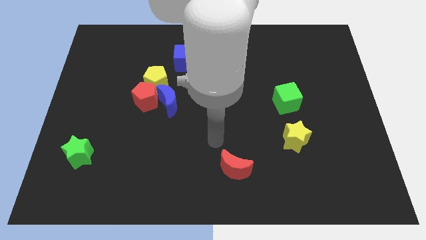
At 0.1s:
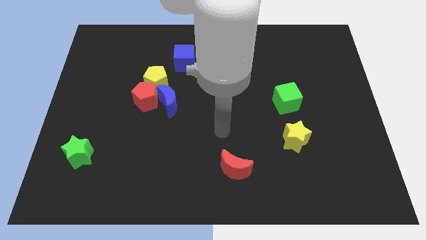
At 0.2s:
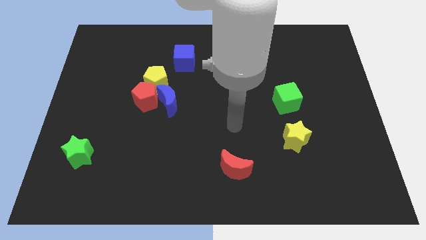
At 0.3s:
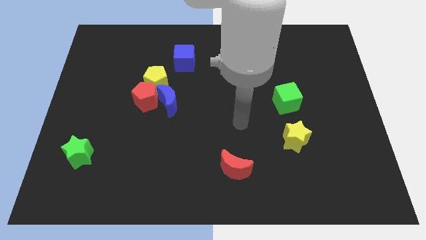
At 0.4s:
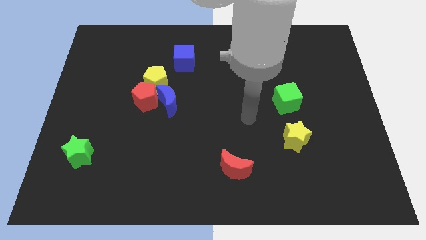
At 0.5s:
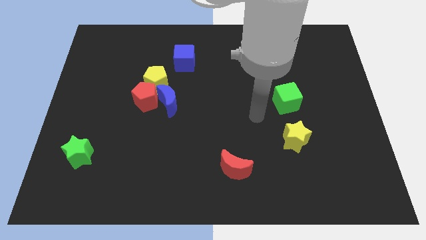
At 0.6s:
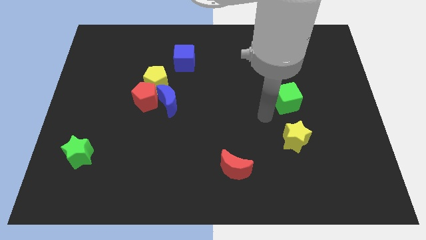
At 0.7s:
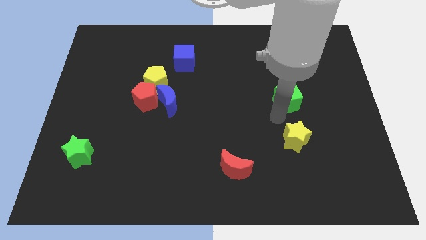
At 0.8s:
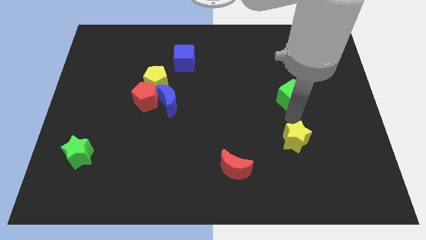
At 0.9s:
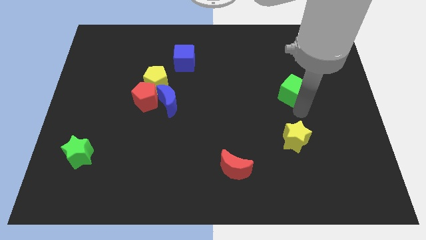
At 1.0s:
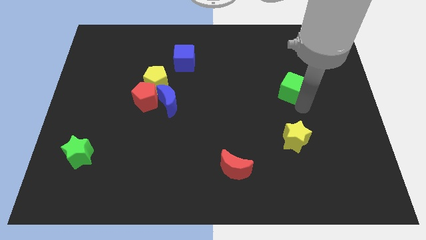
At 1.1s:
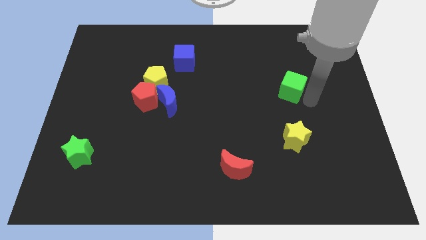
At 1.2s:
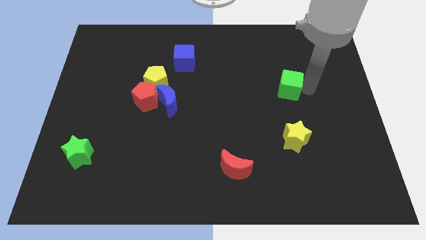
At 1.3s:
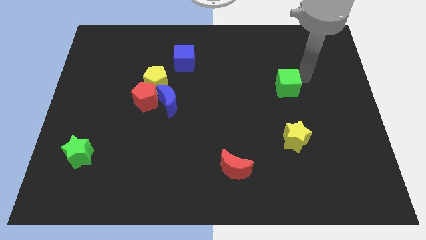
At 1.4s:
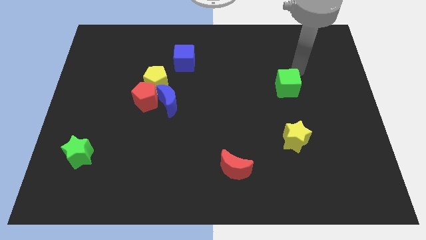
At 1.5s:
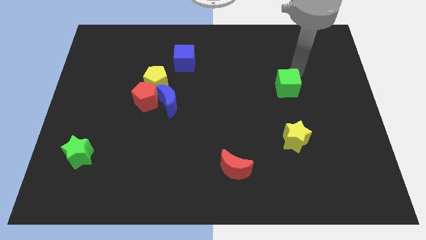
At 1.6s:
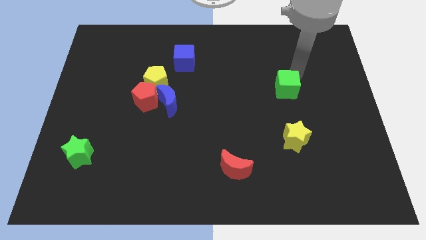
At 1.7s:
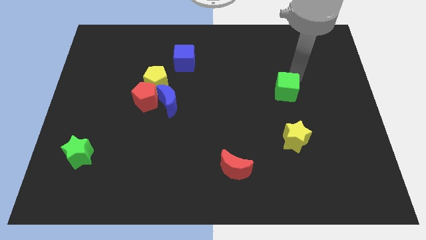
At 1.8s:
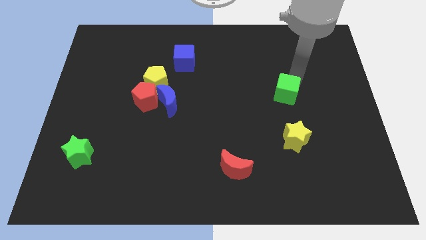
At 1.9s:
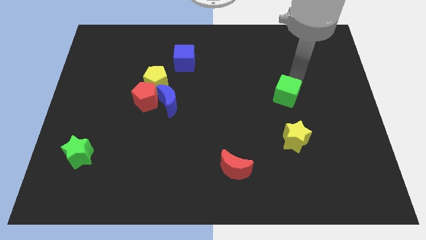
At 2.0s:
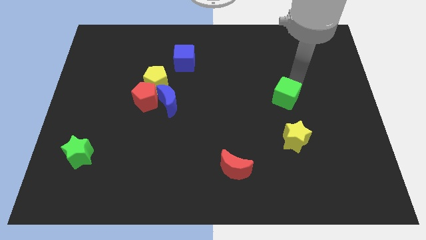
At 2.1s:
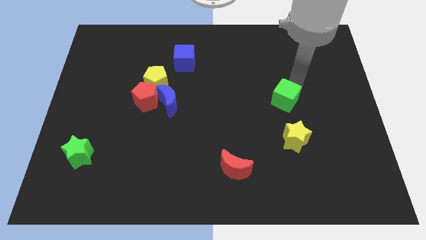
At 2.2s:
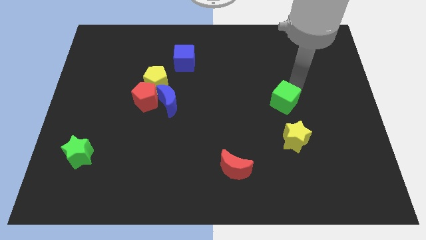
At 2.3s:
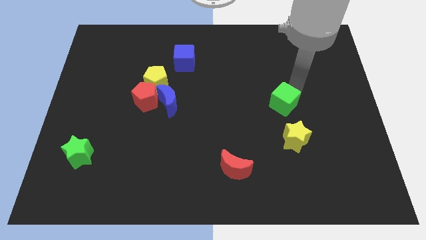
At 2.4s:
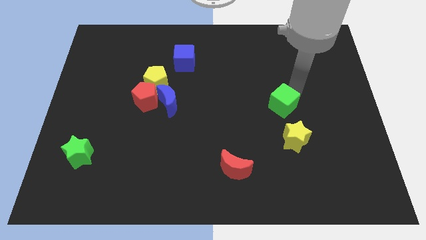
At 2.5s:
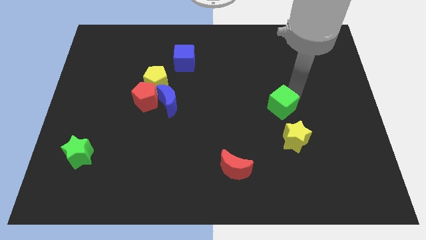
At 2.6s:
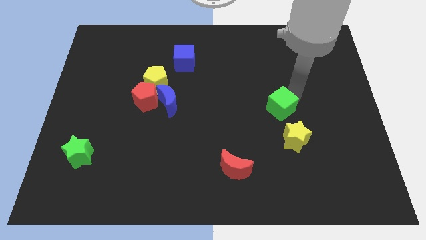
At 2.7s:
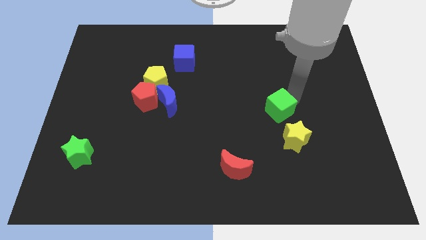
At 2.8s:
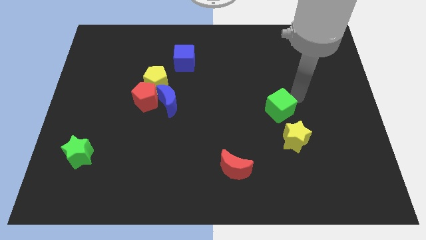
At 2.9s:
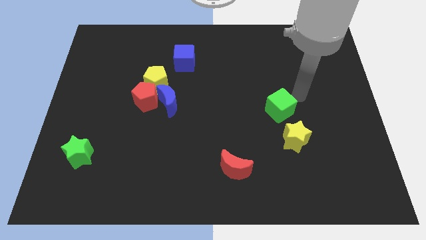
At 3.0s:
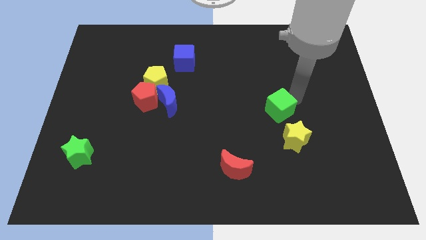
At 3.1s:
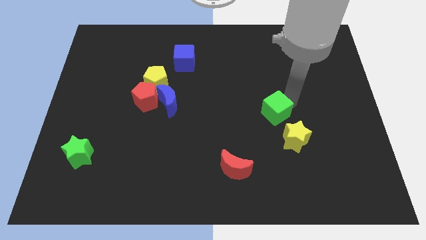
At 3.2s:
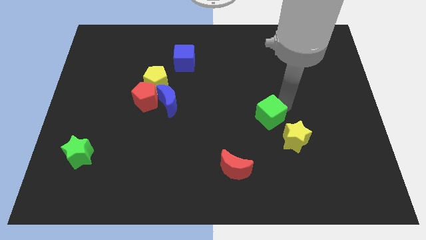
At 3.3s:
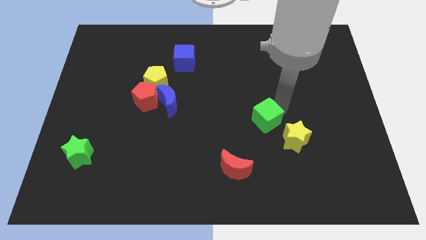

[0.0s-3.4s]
push the green cube downwards and left diagonally slightly

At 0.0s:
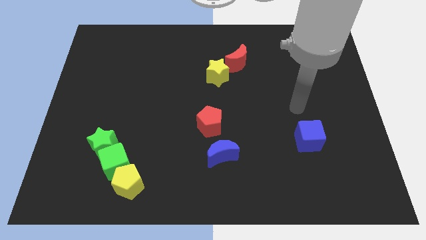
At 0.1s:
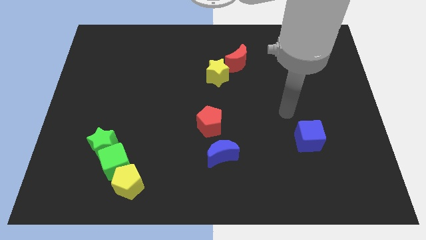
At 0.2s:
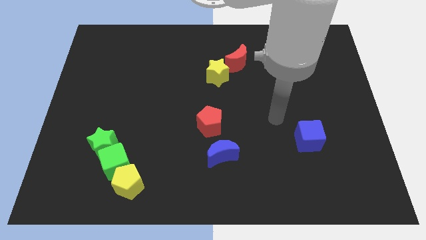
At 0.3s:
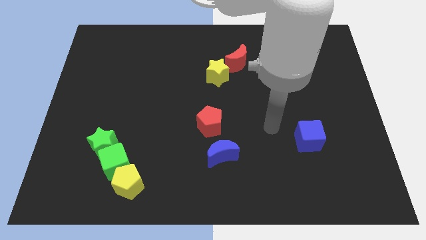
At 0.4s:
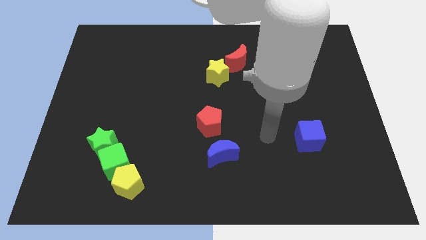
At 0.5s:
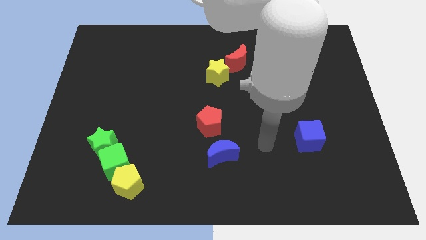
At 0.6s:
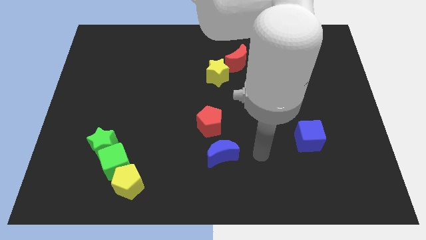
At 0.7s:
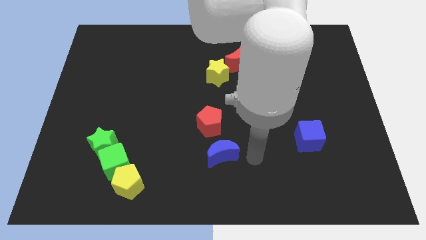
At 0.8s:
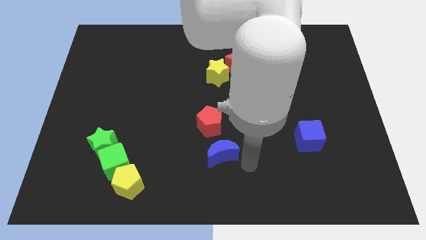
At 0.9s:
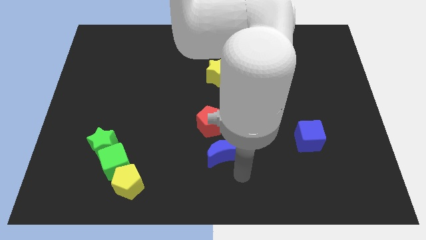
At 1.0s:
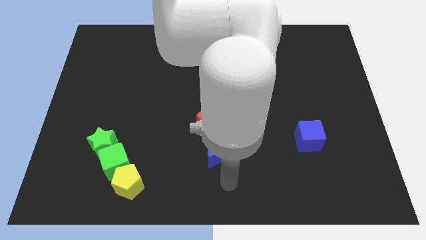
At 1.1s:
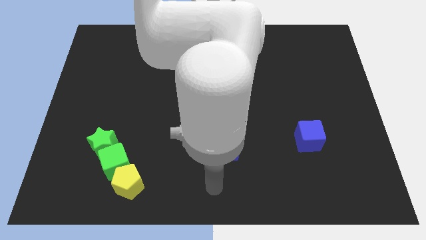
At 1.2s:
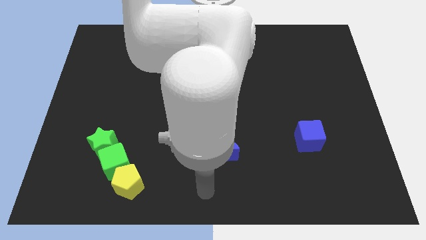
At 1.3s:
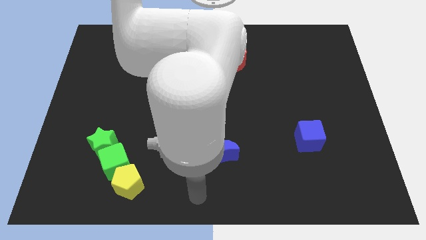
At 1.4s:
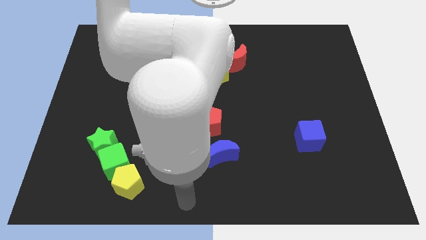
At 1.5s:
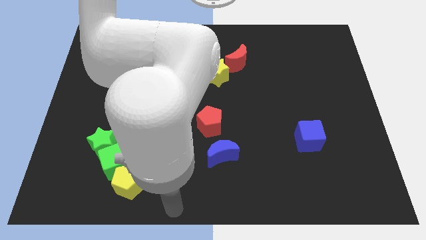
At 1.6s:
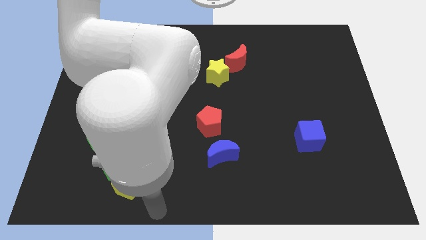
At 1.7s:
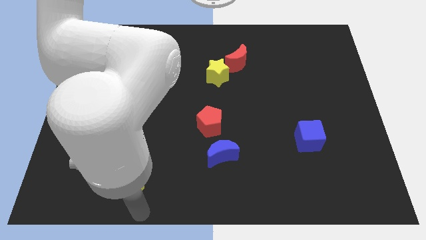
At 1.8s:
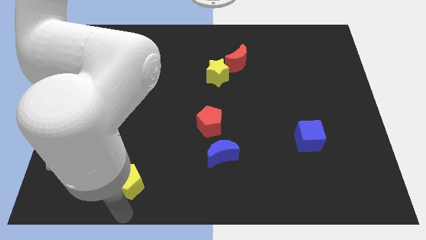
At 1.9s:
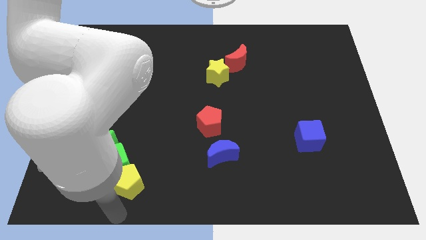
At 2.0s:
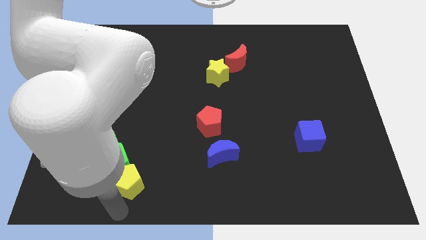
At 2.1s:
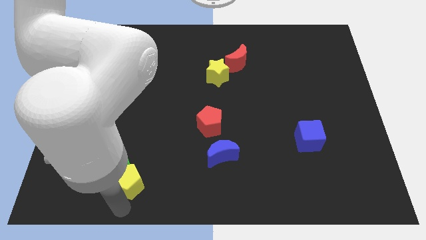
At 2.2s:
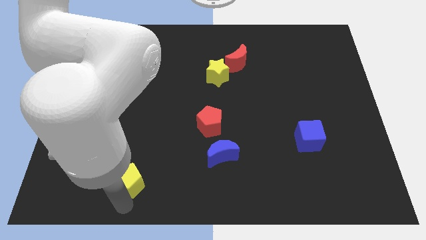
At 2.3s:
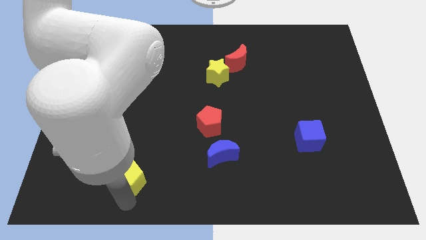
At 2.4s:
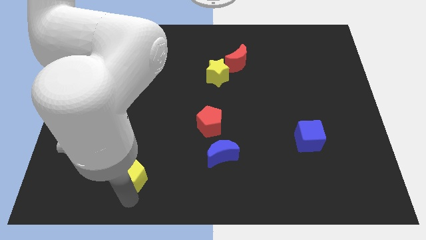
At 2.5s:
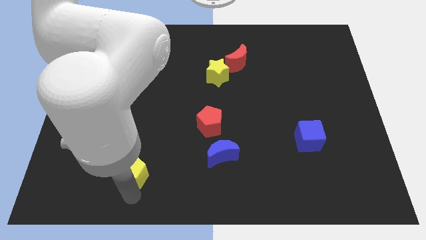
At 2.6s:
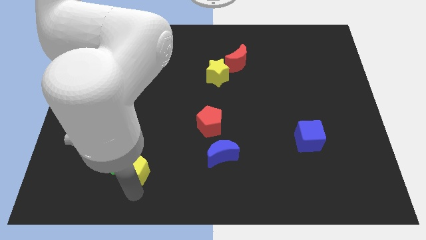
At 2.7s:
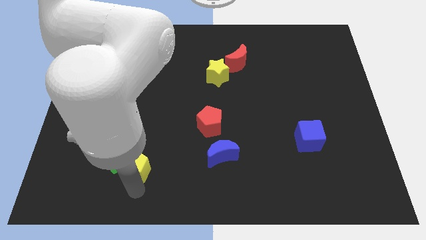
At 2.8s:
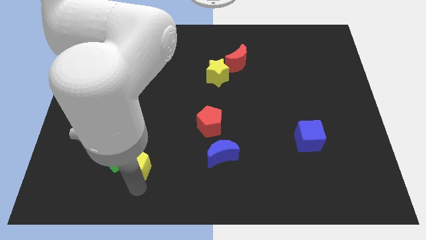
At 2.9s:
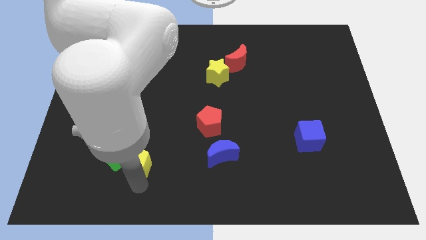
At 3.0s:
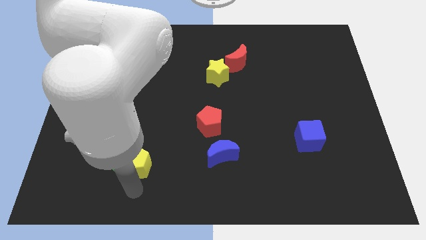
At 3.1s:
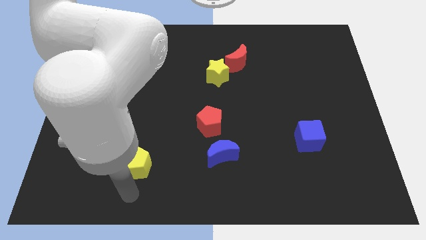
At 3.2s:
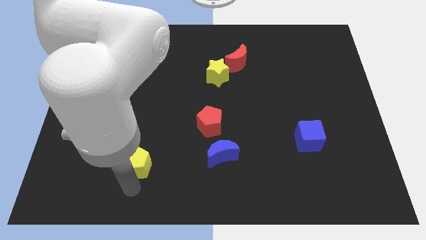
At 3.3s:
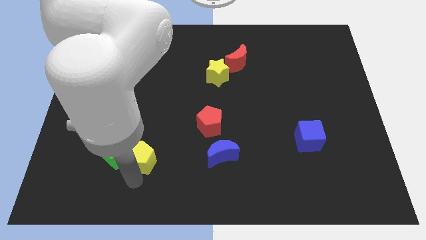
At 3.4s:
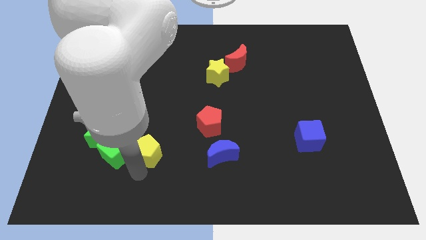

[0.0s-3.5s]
push the yellow pentagon a little upwards

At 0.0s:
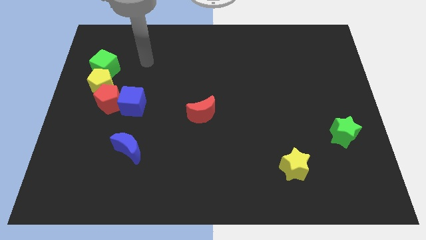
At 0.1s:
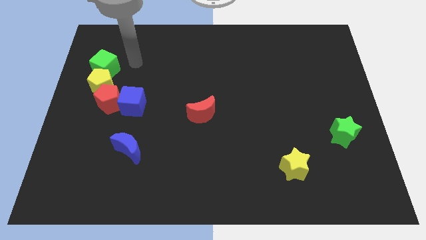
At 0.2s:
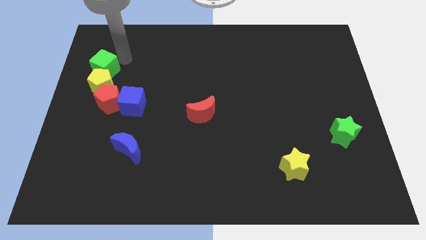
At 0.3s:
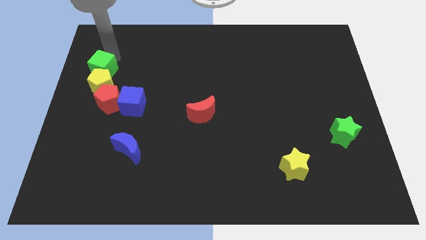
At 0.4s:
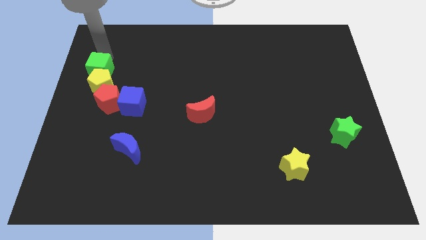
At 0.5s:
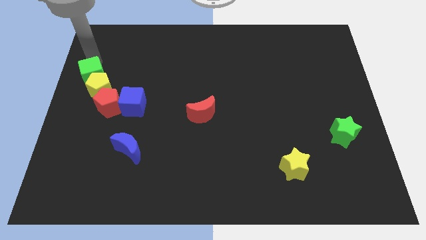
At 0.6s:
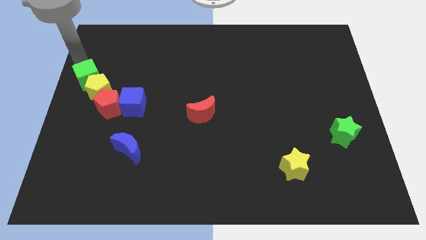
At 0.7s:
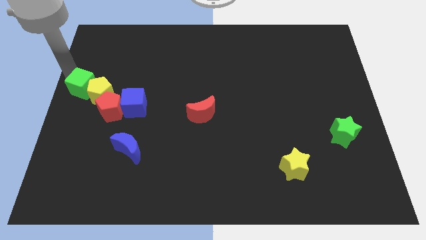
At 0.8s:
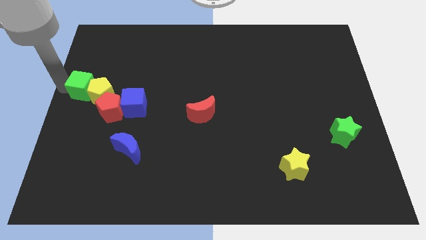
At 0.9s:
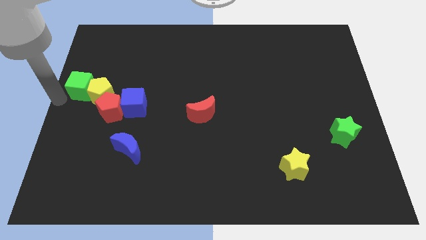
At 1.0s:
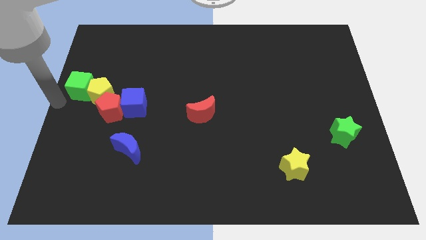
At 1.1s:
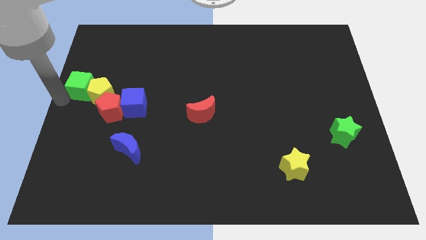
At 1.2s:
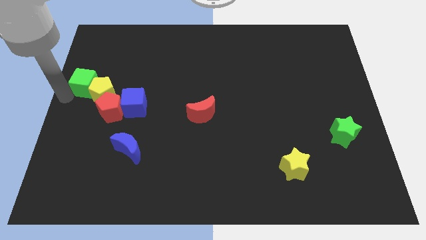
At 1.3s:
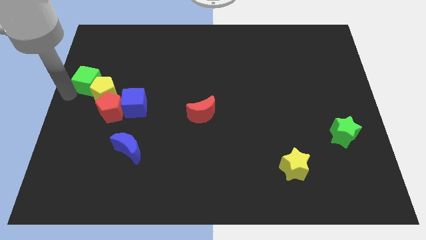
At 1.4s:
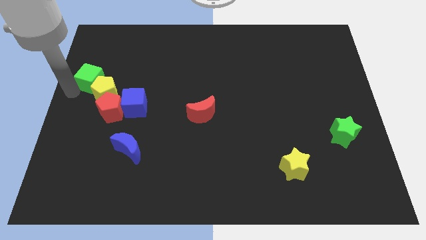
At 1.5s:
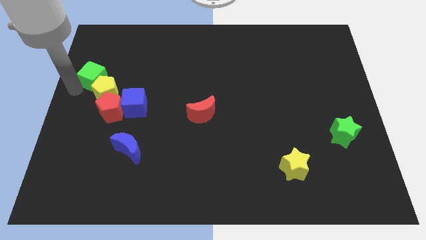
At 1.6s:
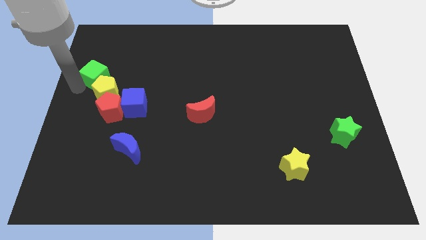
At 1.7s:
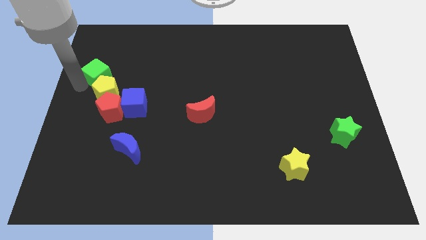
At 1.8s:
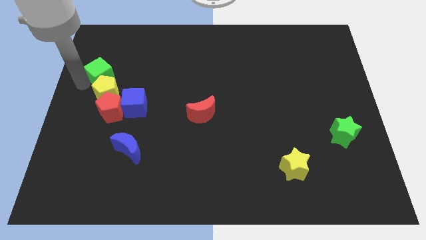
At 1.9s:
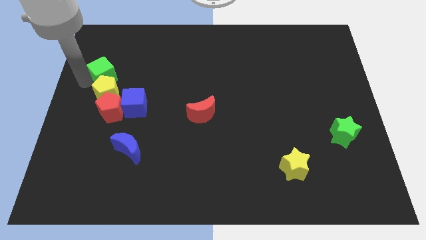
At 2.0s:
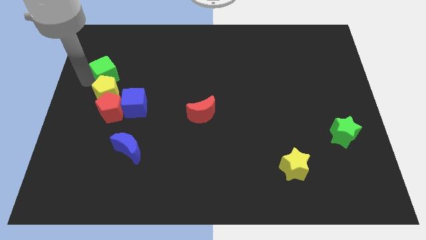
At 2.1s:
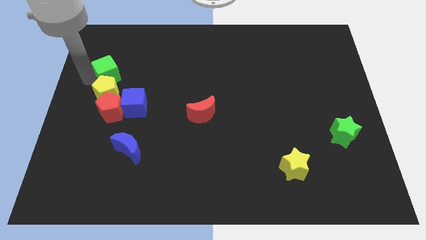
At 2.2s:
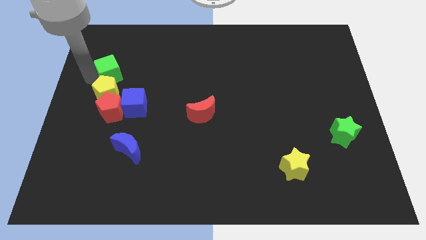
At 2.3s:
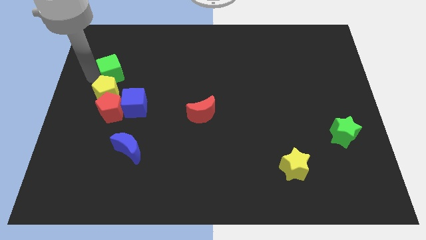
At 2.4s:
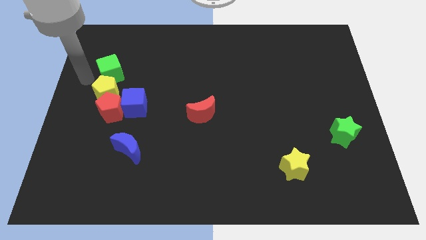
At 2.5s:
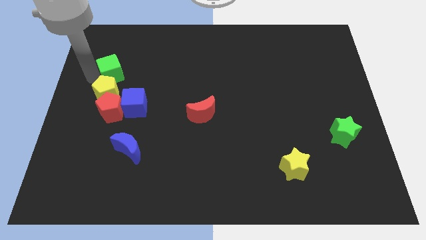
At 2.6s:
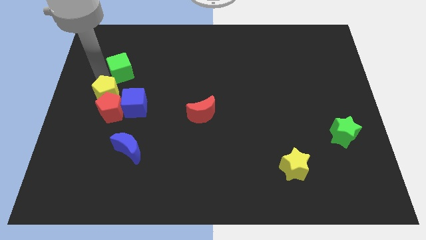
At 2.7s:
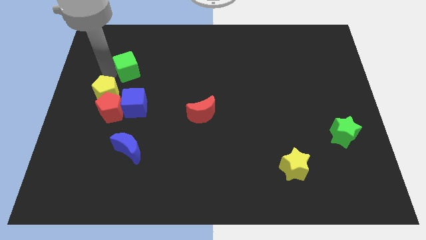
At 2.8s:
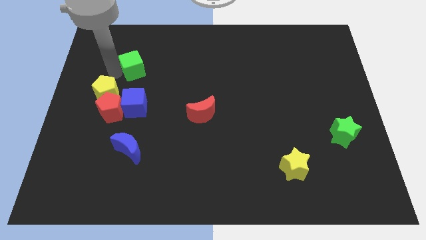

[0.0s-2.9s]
push the green cube to the right somewhat
